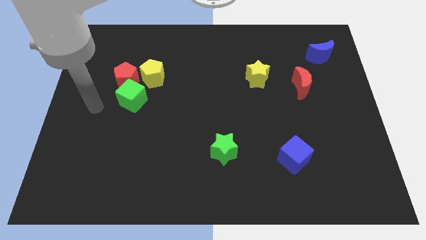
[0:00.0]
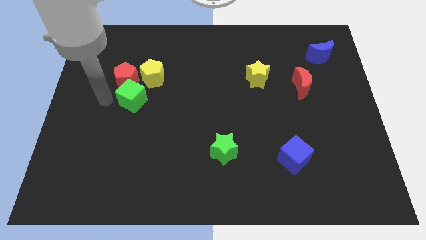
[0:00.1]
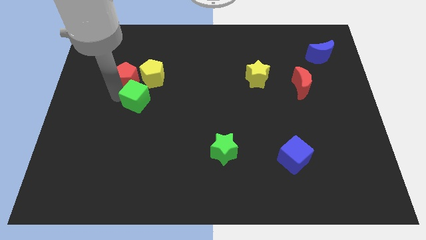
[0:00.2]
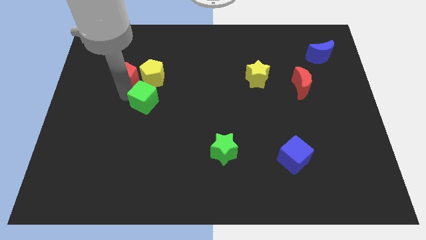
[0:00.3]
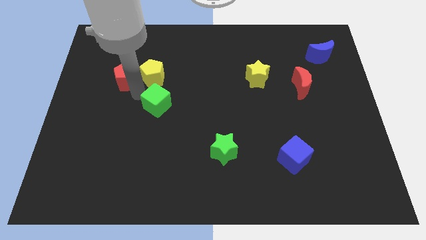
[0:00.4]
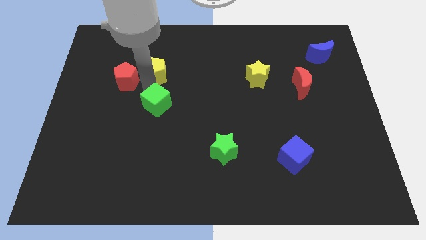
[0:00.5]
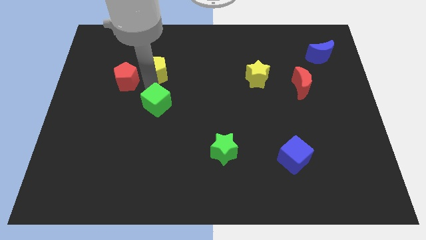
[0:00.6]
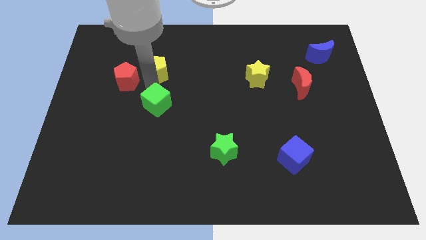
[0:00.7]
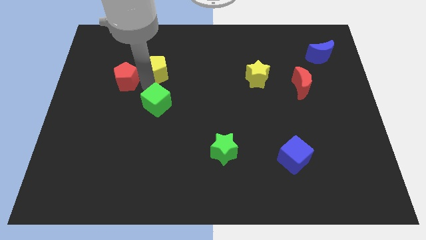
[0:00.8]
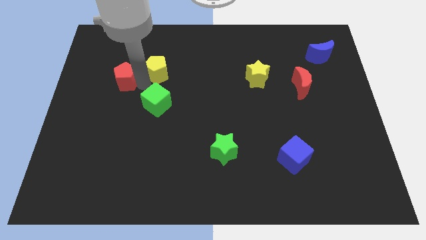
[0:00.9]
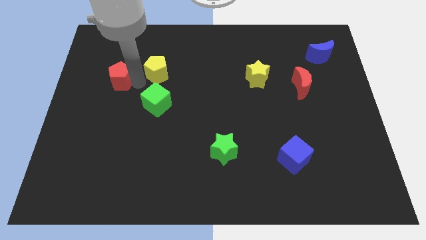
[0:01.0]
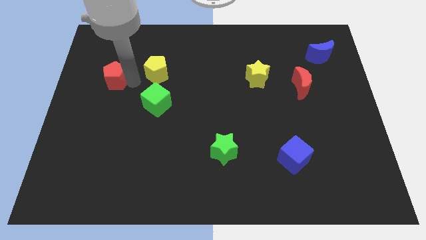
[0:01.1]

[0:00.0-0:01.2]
separate the red pentagon from the green cube and yellow pentagon

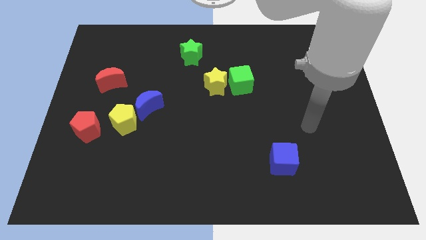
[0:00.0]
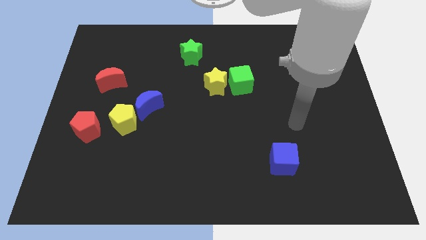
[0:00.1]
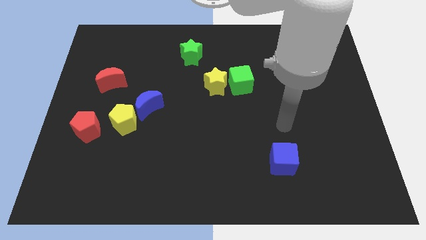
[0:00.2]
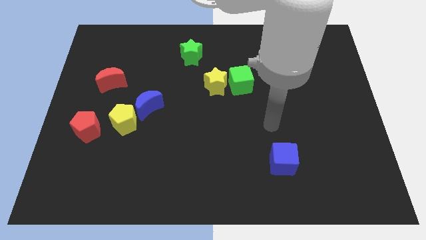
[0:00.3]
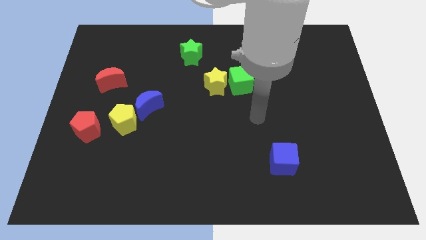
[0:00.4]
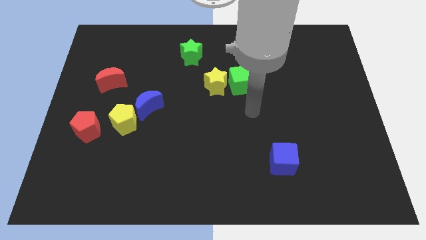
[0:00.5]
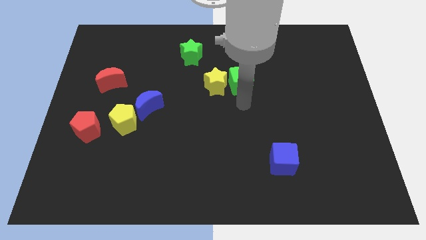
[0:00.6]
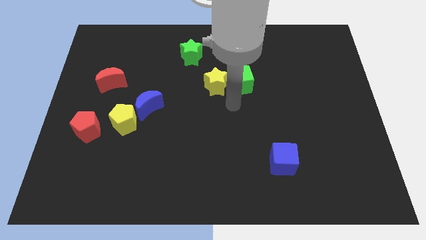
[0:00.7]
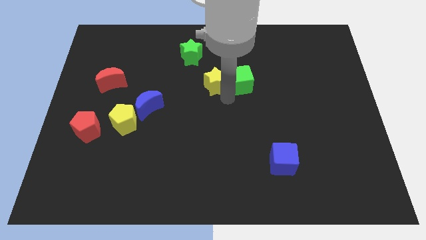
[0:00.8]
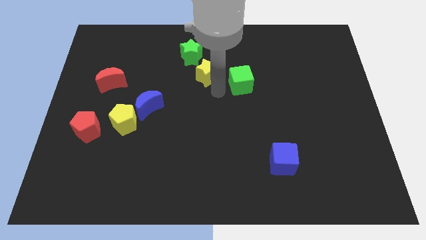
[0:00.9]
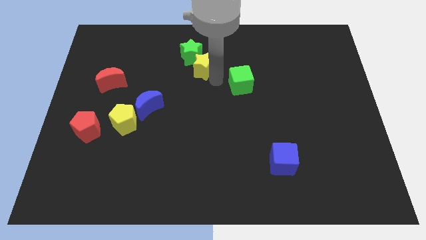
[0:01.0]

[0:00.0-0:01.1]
pull the green cube apart from the yellow star

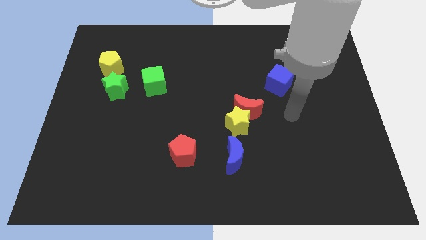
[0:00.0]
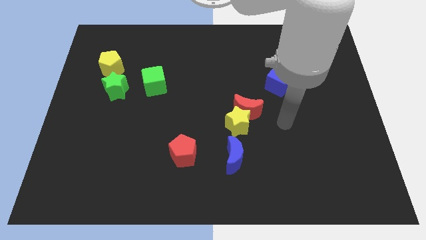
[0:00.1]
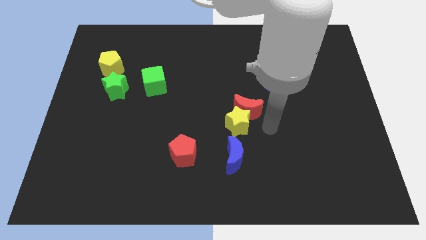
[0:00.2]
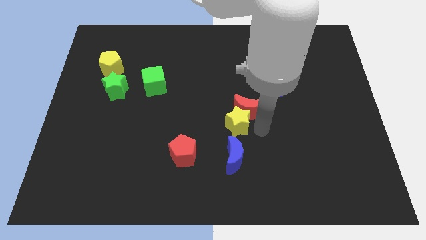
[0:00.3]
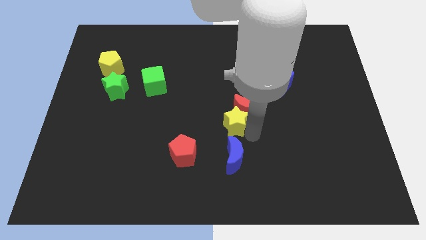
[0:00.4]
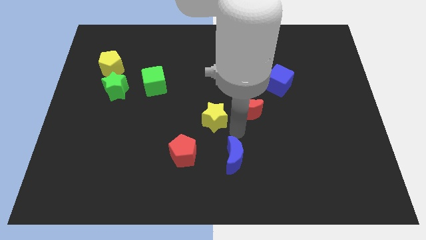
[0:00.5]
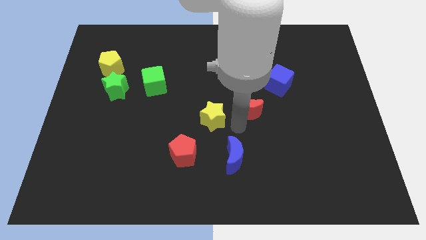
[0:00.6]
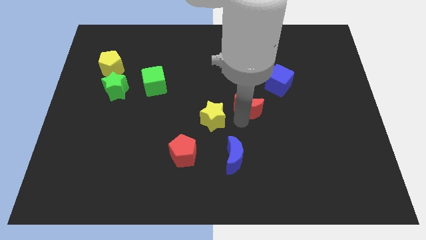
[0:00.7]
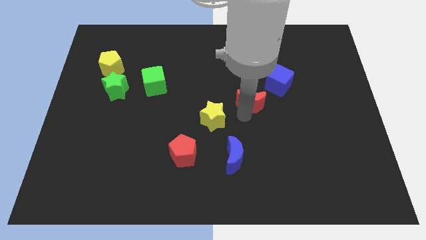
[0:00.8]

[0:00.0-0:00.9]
pull the red moon apart from the yellow star

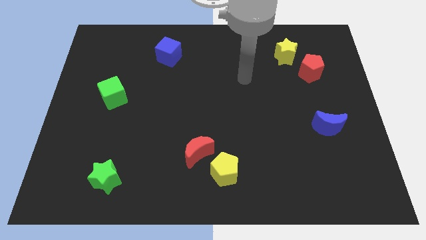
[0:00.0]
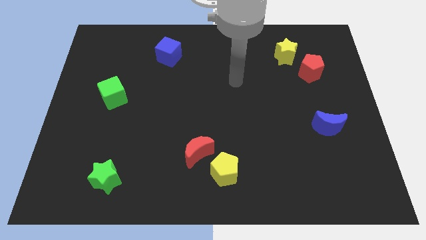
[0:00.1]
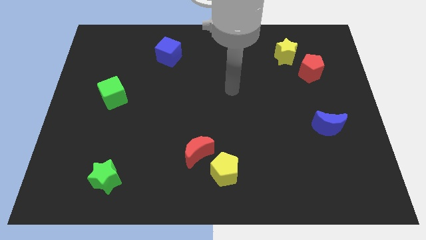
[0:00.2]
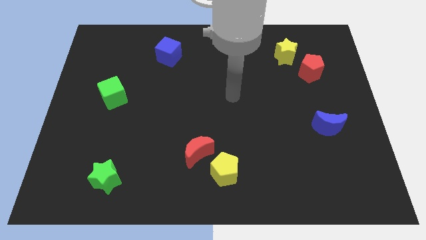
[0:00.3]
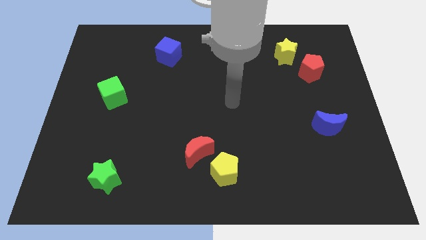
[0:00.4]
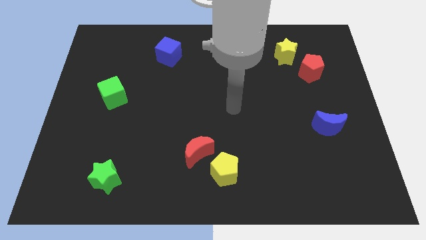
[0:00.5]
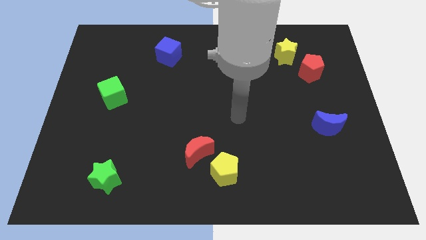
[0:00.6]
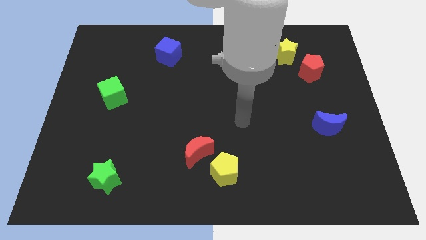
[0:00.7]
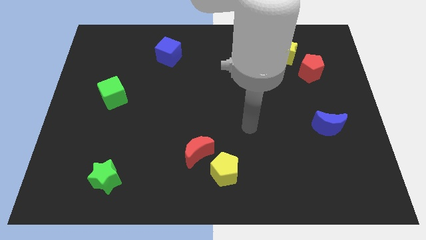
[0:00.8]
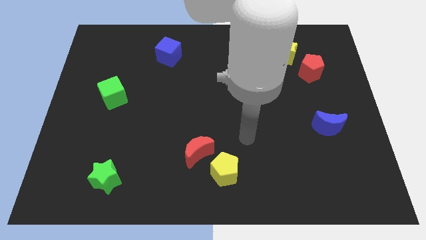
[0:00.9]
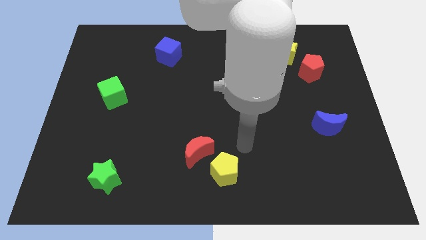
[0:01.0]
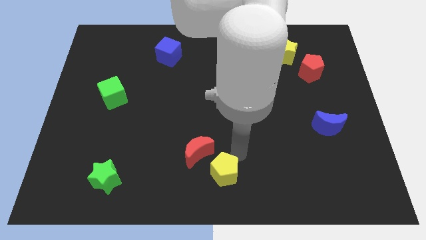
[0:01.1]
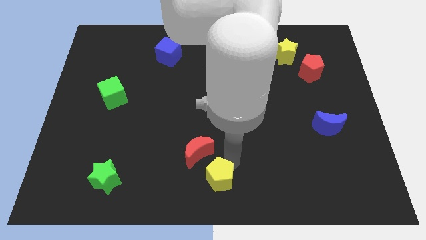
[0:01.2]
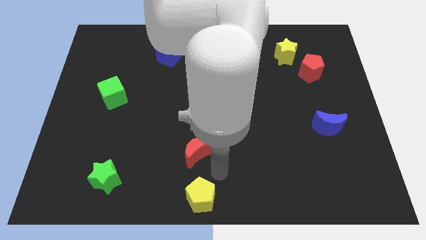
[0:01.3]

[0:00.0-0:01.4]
move the red moon away from the yellow pentagon

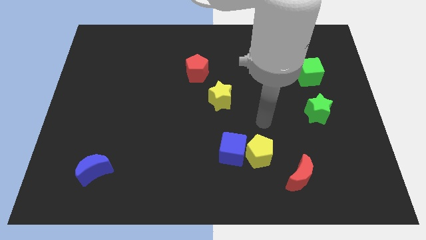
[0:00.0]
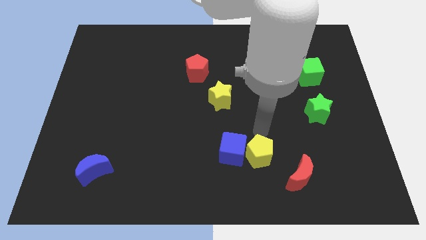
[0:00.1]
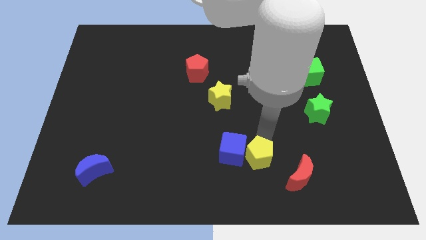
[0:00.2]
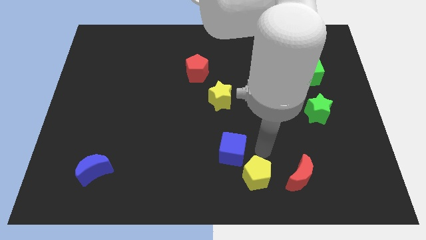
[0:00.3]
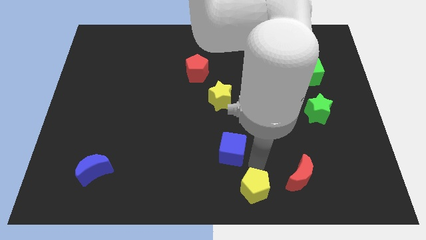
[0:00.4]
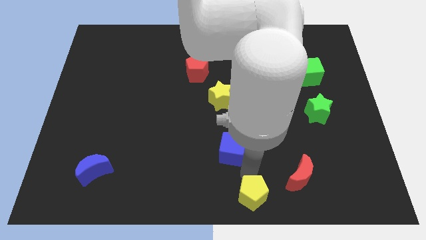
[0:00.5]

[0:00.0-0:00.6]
separate the blue cube from the yellow pentagon

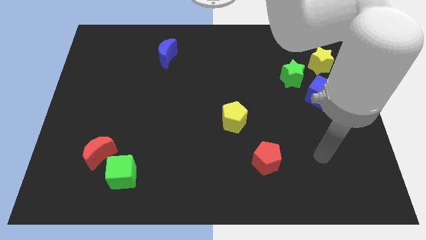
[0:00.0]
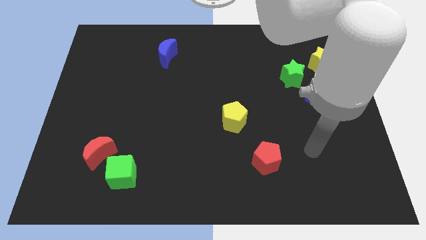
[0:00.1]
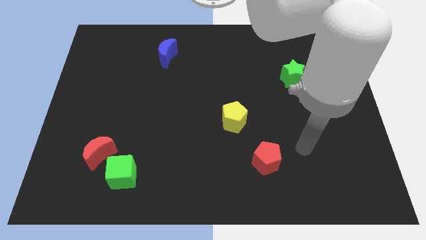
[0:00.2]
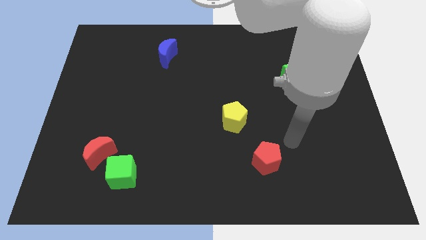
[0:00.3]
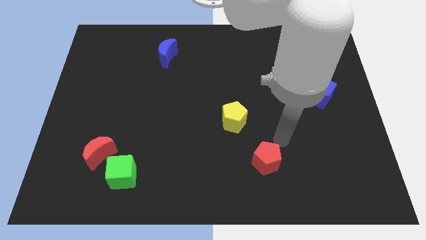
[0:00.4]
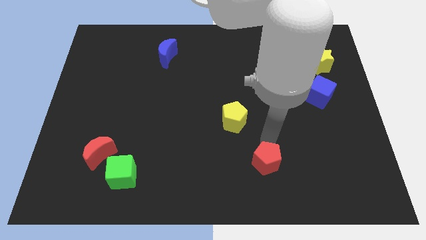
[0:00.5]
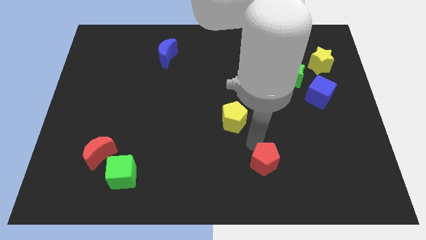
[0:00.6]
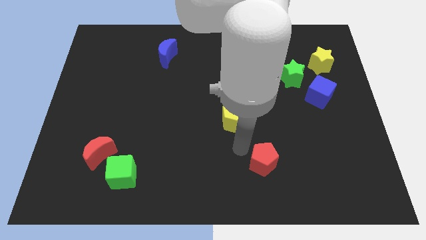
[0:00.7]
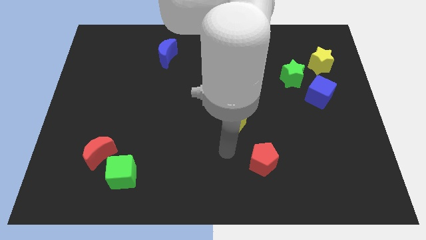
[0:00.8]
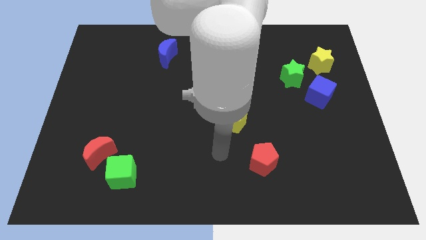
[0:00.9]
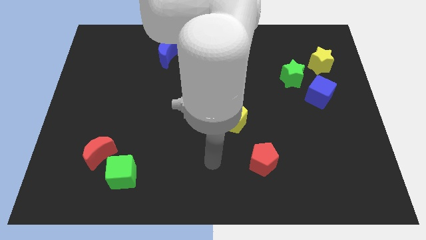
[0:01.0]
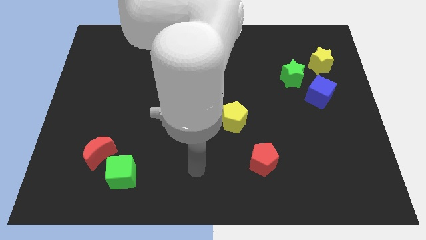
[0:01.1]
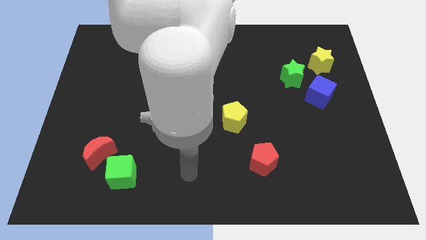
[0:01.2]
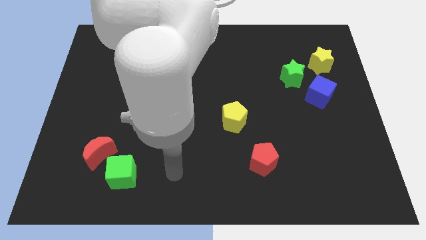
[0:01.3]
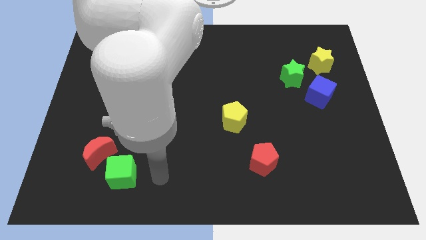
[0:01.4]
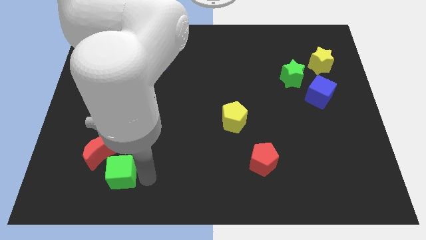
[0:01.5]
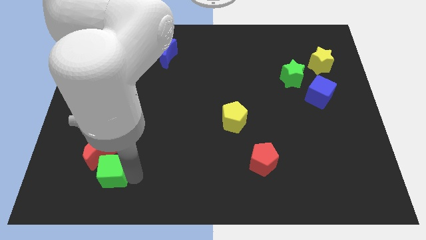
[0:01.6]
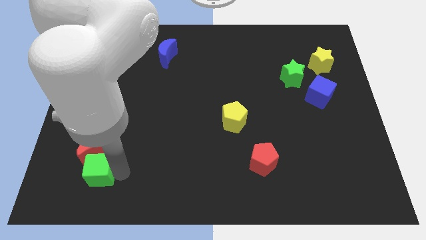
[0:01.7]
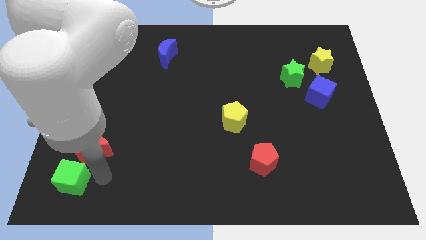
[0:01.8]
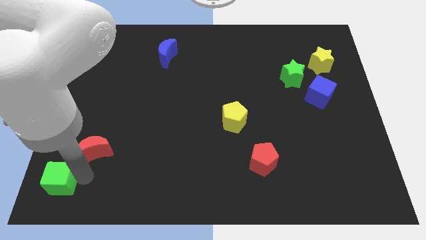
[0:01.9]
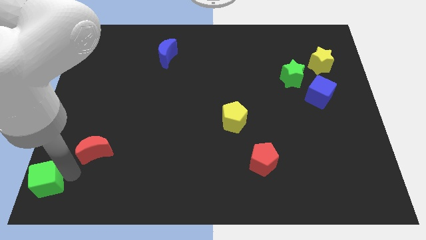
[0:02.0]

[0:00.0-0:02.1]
move the red moon away from the green cube

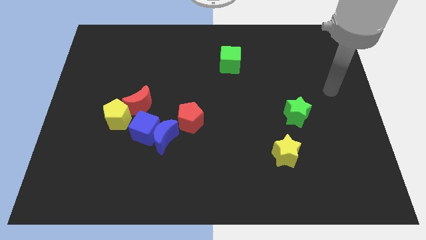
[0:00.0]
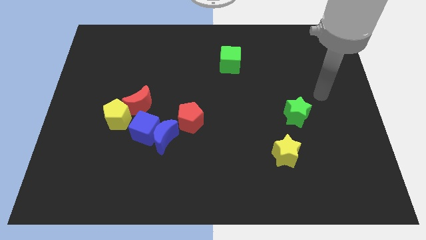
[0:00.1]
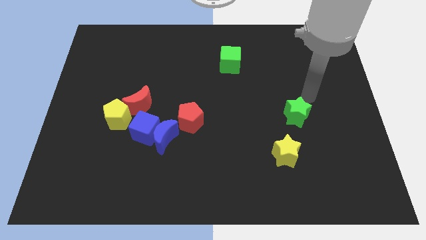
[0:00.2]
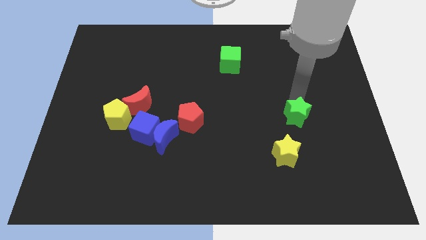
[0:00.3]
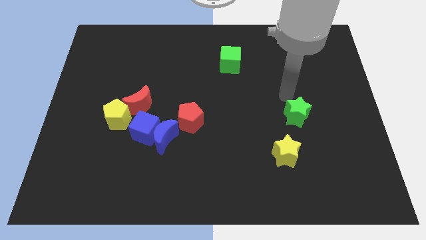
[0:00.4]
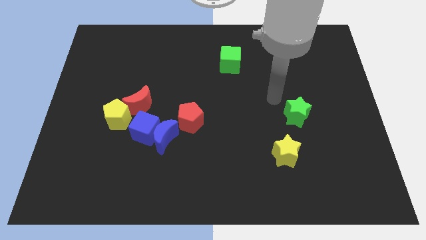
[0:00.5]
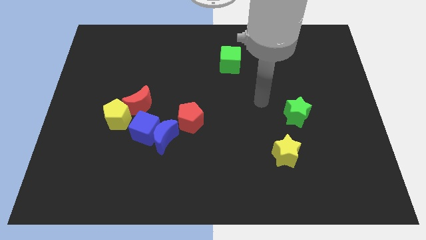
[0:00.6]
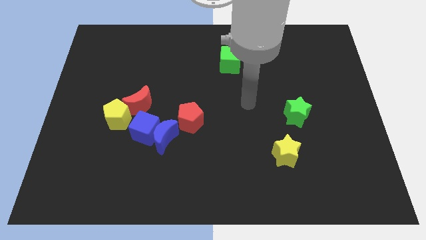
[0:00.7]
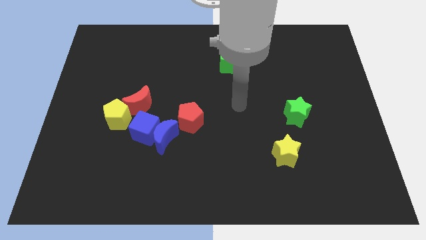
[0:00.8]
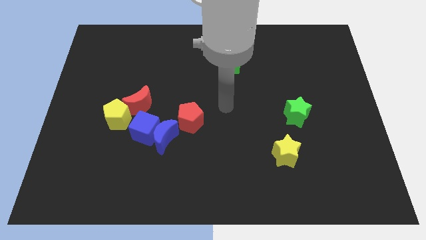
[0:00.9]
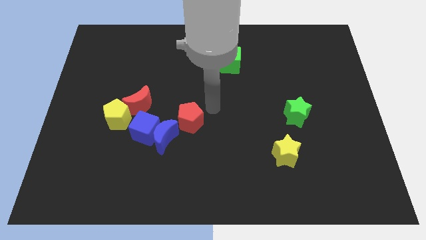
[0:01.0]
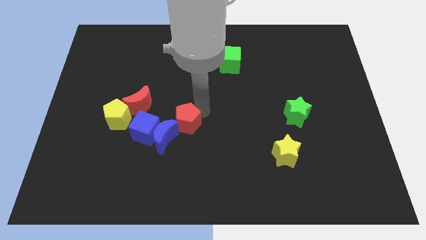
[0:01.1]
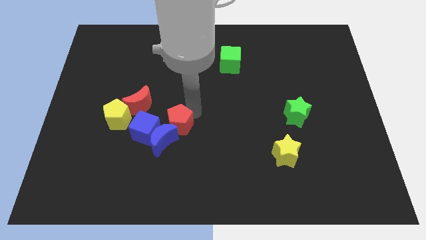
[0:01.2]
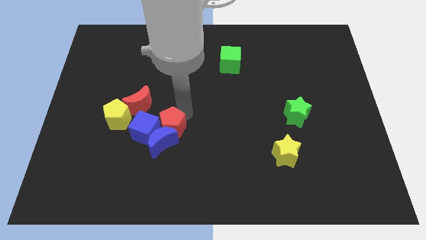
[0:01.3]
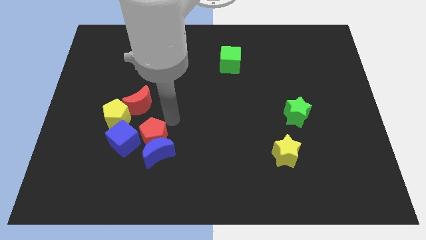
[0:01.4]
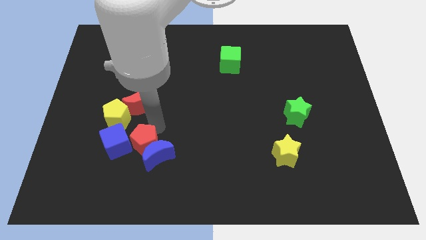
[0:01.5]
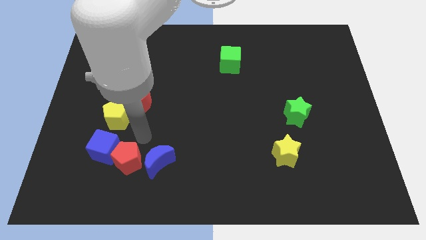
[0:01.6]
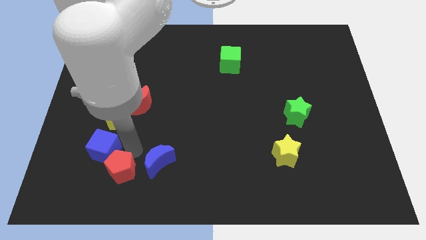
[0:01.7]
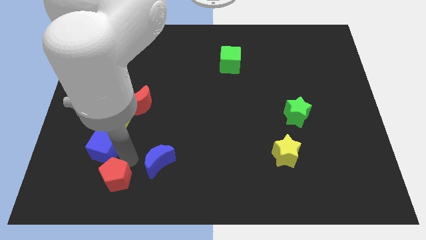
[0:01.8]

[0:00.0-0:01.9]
separate the blue moon from the blue cube and red pentagon

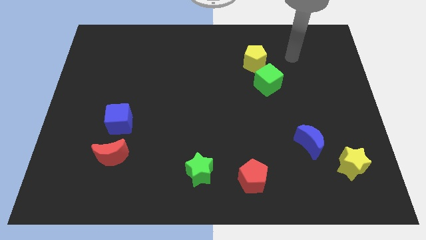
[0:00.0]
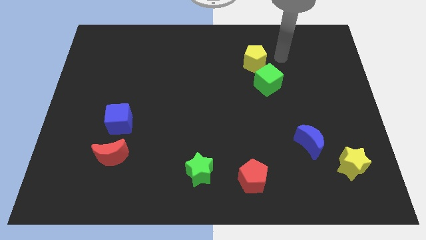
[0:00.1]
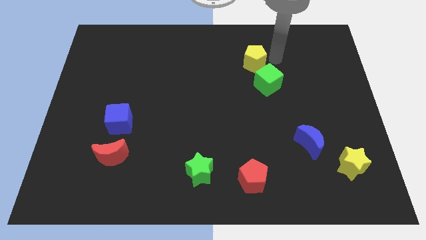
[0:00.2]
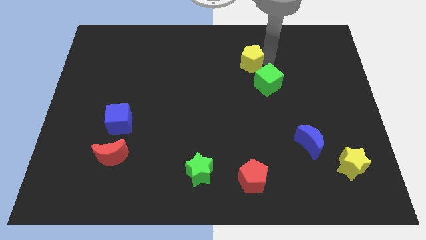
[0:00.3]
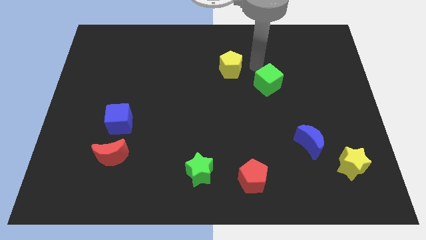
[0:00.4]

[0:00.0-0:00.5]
pull the green cube apart from the yellow pentagon
